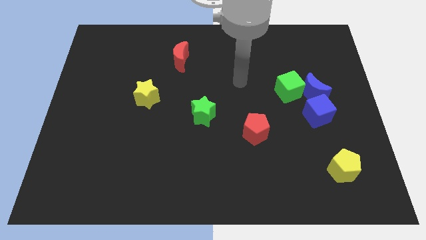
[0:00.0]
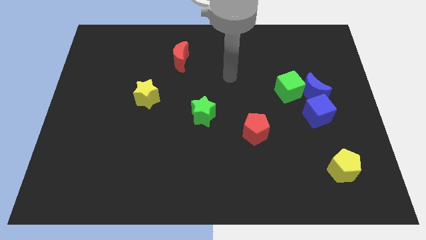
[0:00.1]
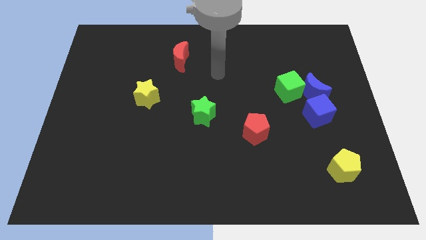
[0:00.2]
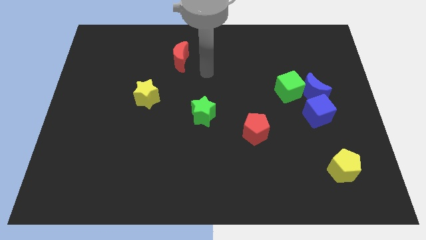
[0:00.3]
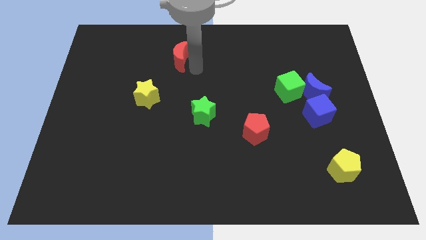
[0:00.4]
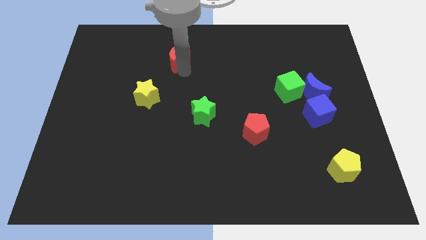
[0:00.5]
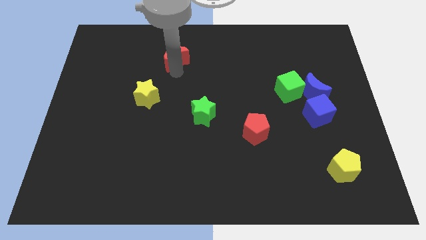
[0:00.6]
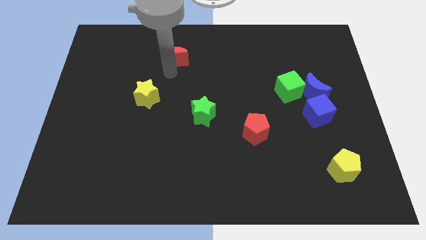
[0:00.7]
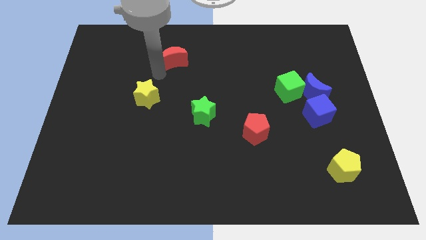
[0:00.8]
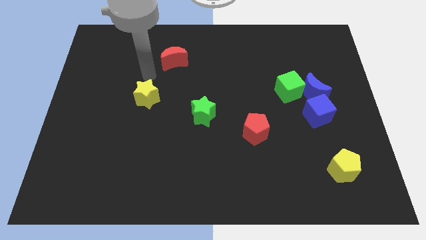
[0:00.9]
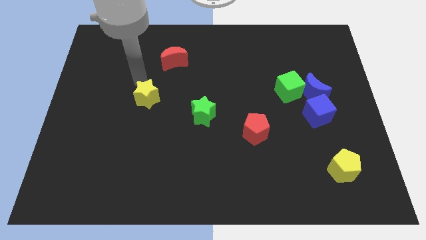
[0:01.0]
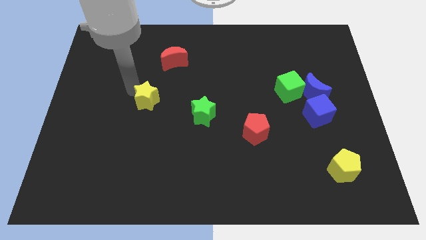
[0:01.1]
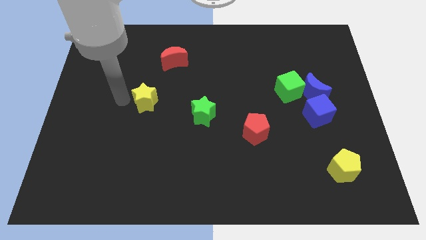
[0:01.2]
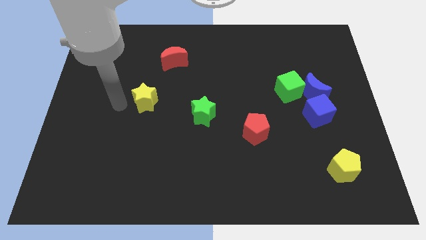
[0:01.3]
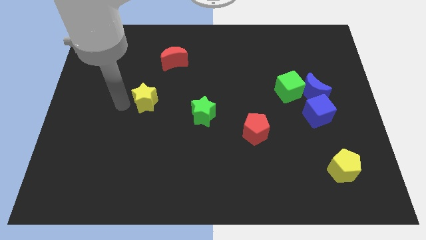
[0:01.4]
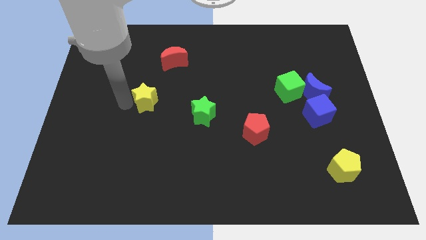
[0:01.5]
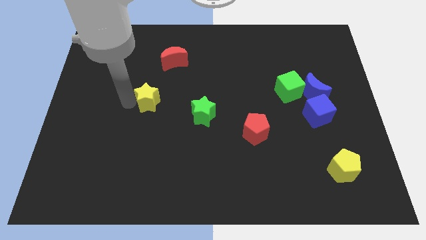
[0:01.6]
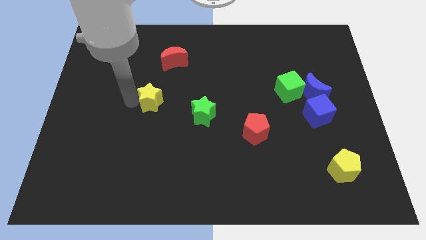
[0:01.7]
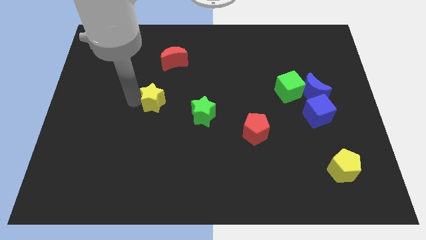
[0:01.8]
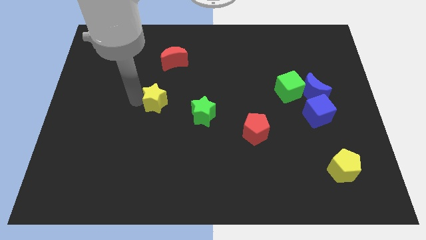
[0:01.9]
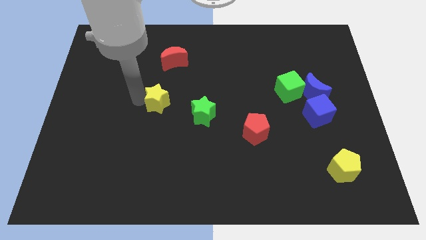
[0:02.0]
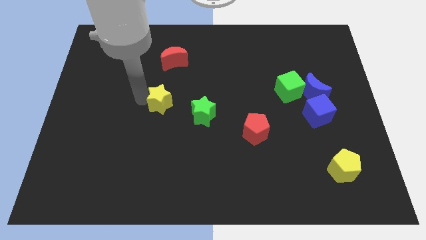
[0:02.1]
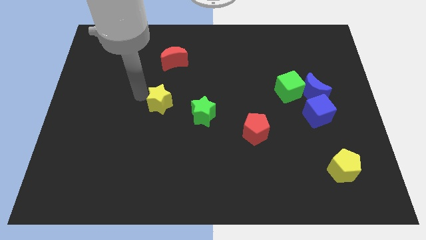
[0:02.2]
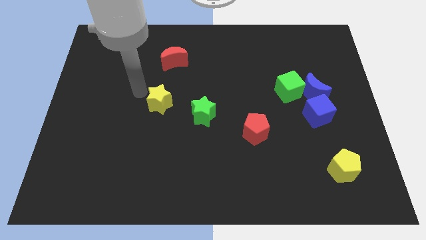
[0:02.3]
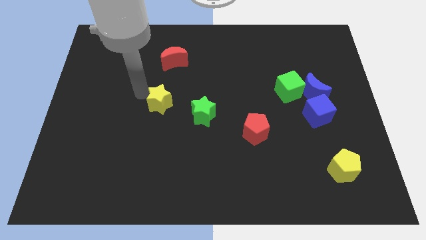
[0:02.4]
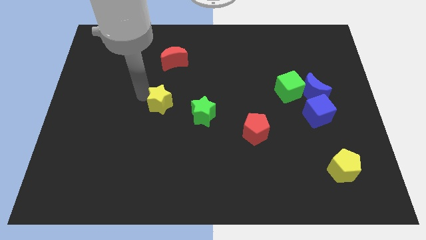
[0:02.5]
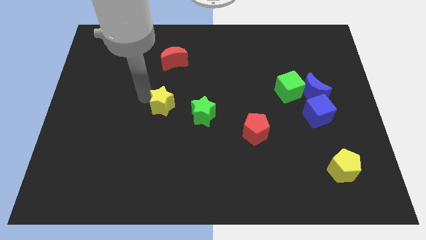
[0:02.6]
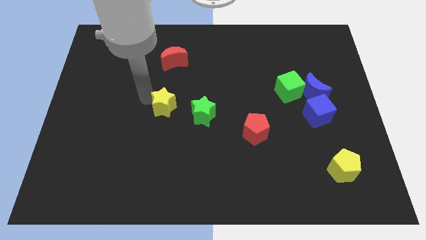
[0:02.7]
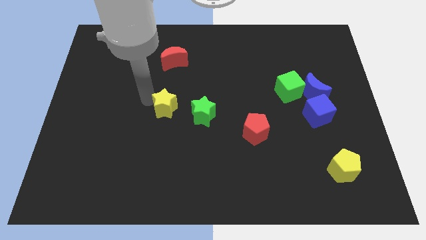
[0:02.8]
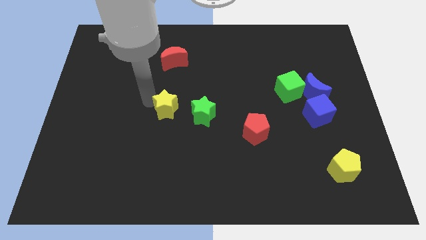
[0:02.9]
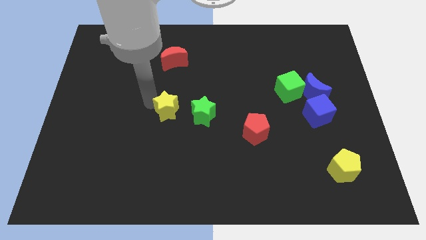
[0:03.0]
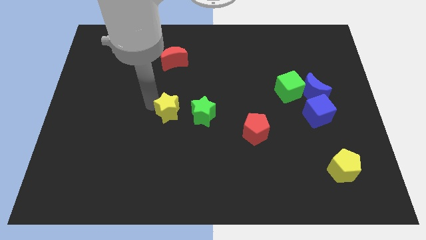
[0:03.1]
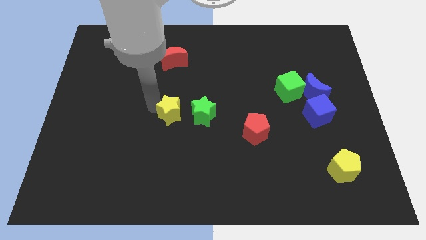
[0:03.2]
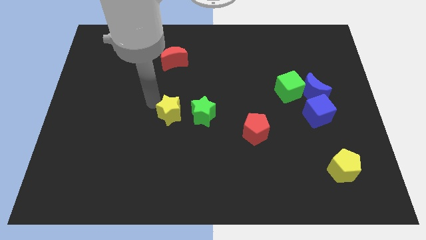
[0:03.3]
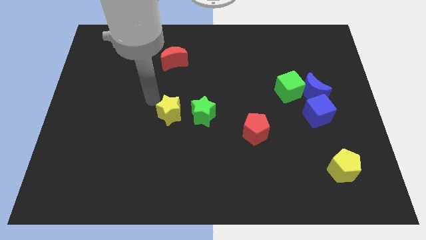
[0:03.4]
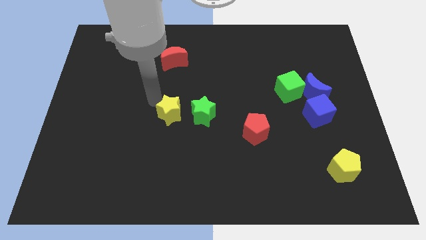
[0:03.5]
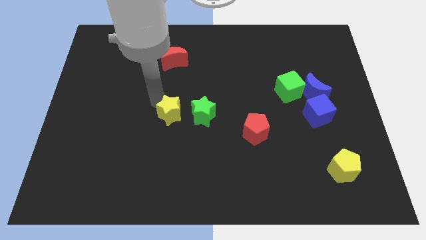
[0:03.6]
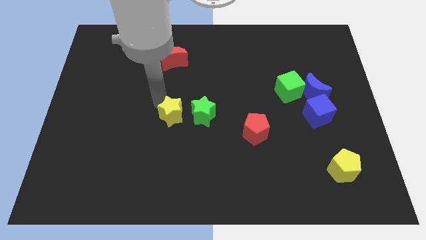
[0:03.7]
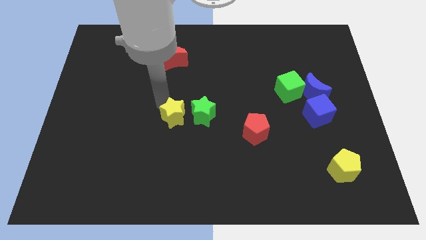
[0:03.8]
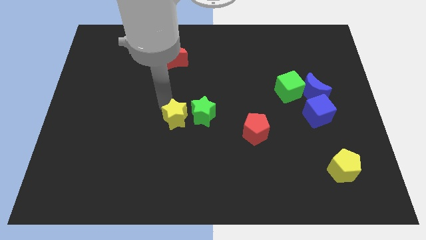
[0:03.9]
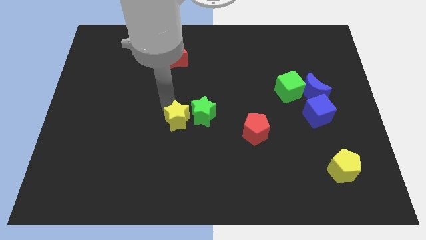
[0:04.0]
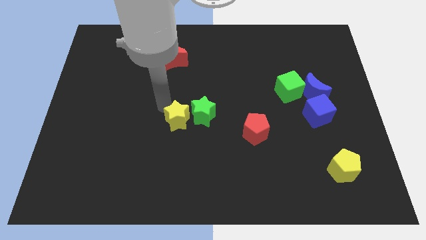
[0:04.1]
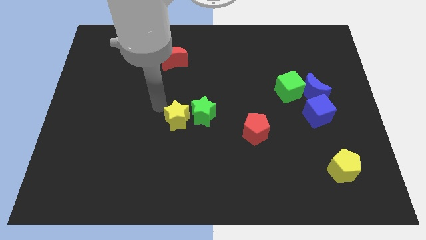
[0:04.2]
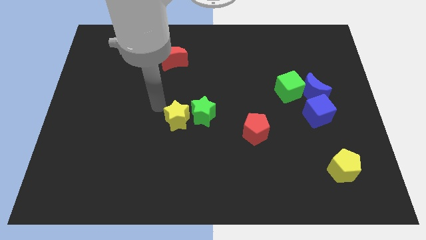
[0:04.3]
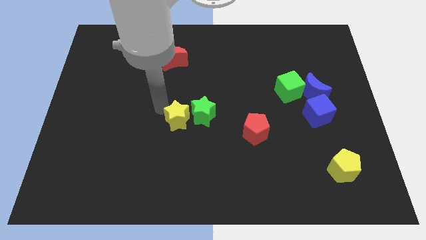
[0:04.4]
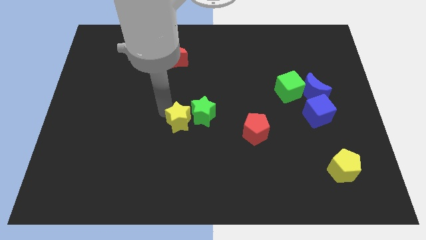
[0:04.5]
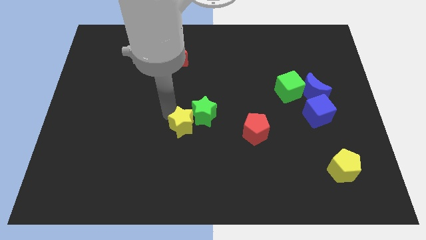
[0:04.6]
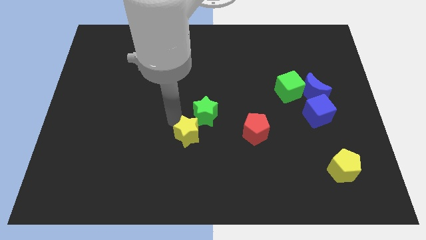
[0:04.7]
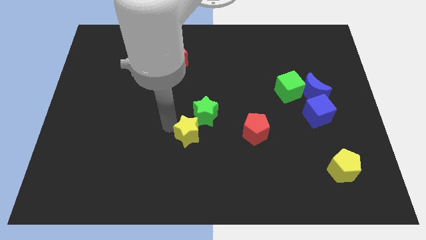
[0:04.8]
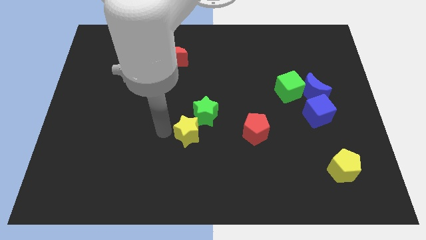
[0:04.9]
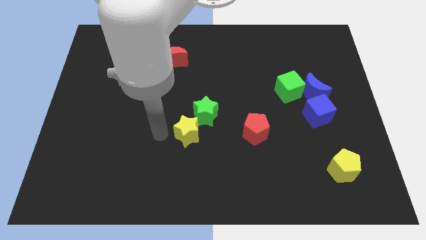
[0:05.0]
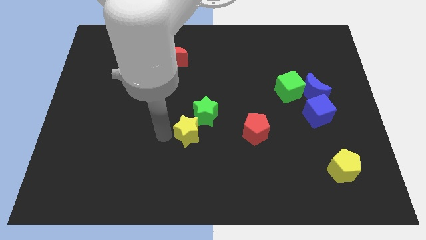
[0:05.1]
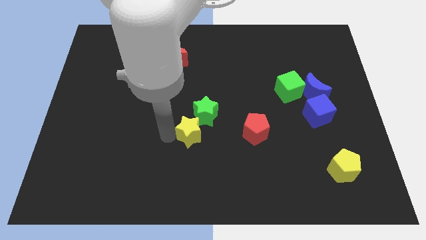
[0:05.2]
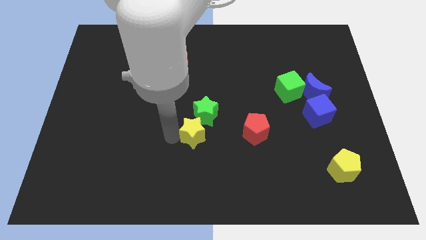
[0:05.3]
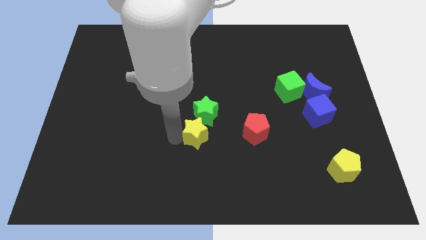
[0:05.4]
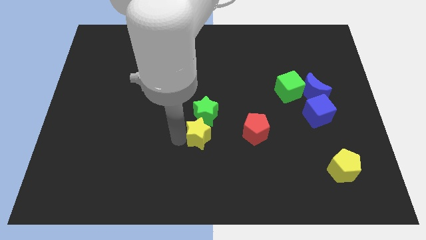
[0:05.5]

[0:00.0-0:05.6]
put the yellow star diagonally down and to the right of the green star
